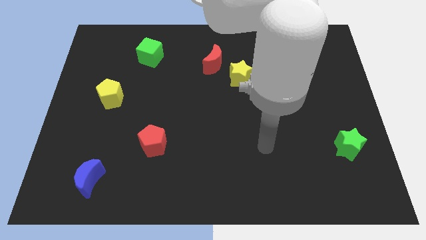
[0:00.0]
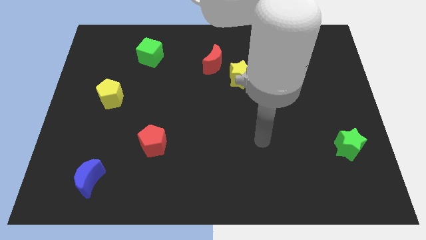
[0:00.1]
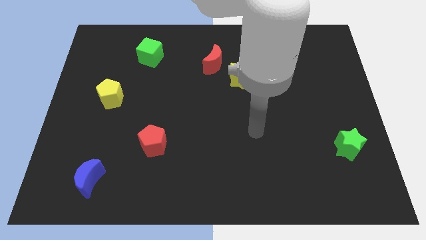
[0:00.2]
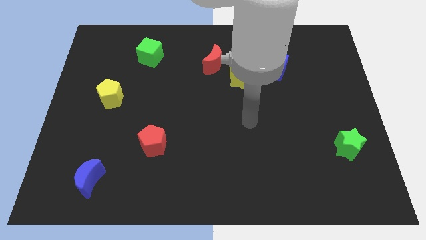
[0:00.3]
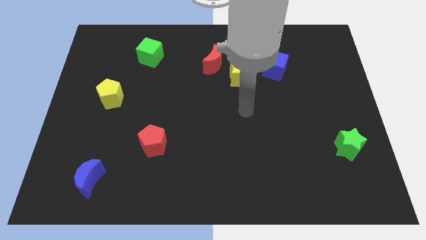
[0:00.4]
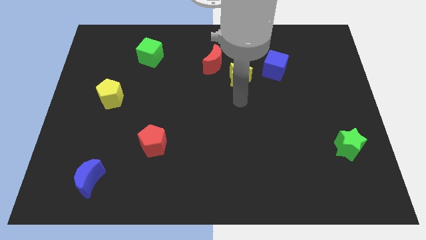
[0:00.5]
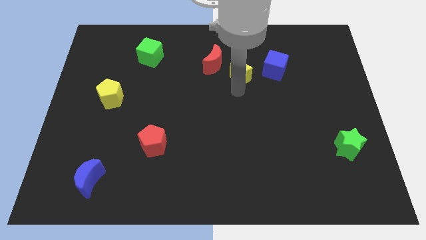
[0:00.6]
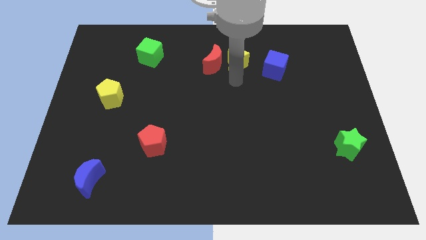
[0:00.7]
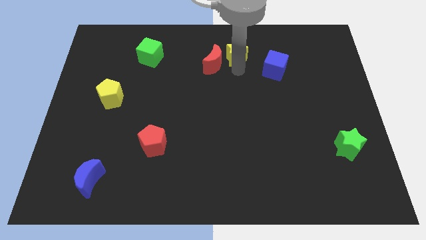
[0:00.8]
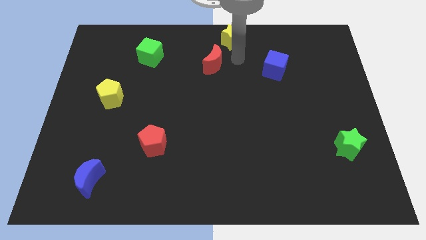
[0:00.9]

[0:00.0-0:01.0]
move the red moon away from the yellow star

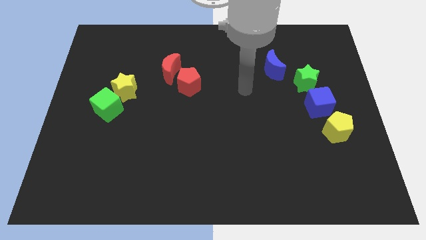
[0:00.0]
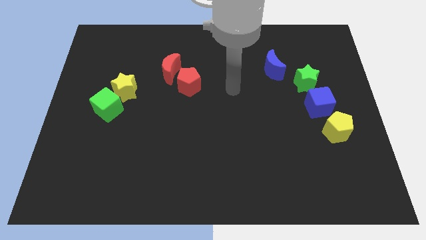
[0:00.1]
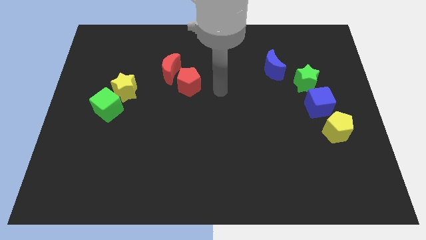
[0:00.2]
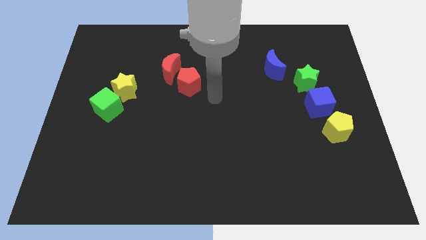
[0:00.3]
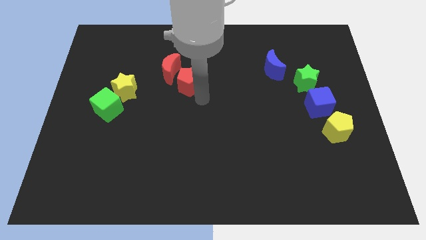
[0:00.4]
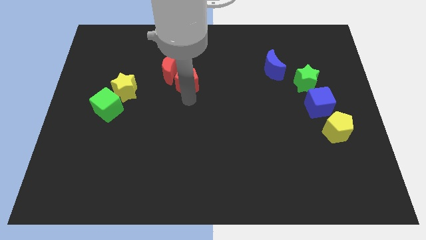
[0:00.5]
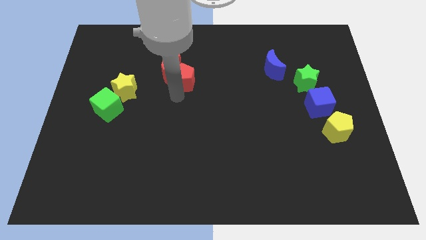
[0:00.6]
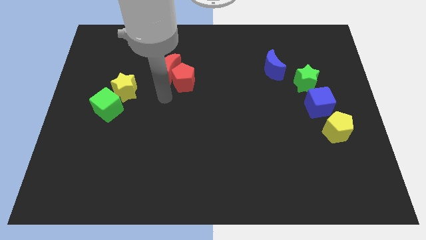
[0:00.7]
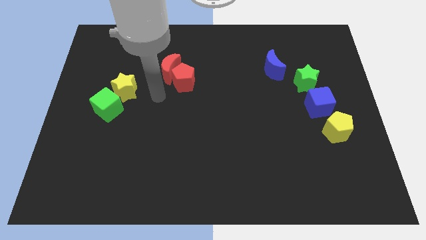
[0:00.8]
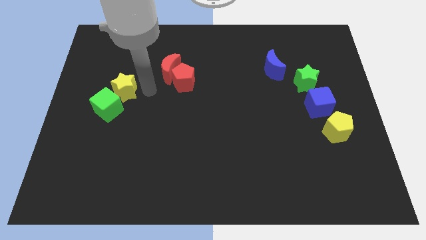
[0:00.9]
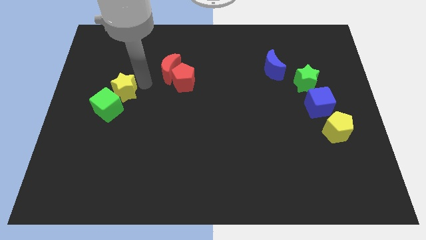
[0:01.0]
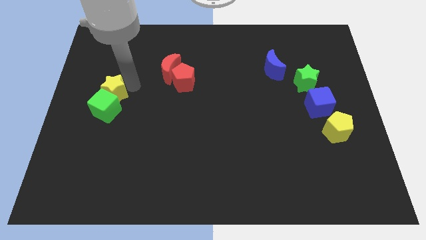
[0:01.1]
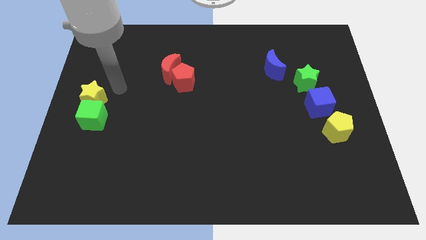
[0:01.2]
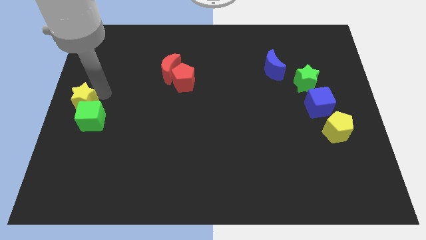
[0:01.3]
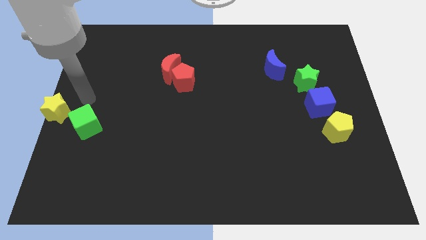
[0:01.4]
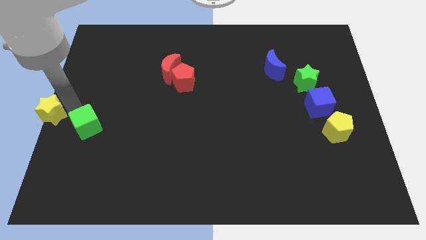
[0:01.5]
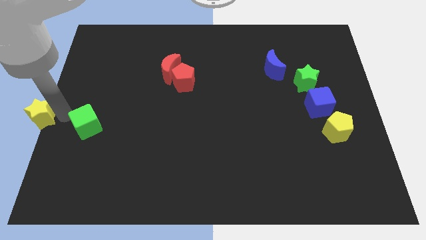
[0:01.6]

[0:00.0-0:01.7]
move the green cube away from the yellow star

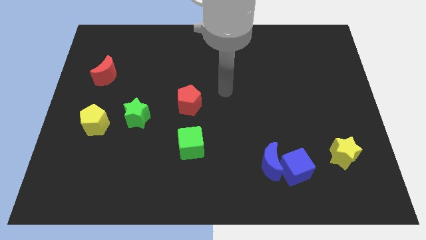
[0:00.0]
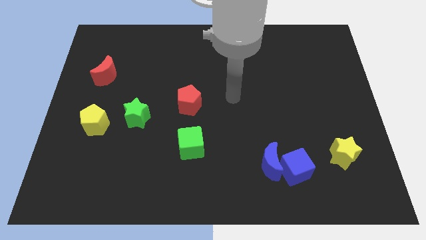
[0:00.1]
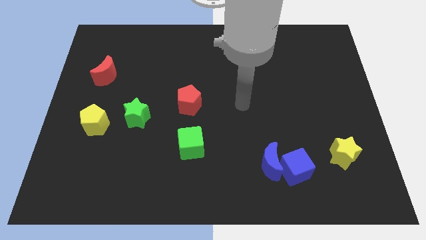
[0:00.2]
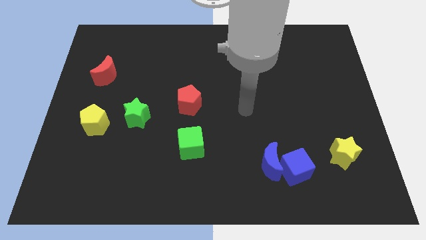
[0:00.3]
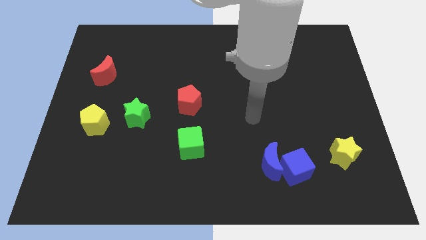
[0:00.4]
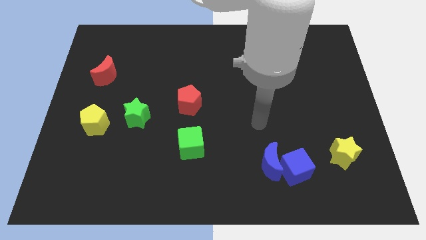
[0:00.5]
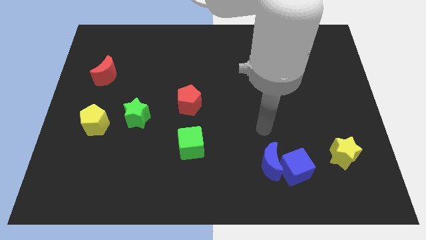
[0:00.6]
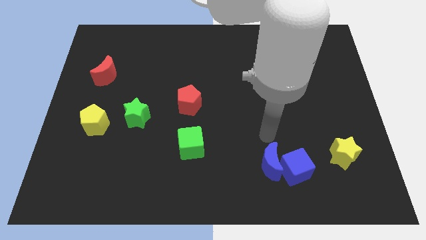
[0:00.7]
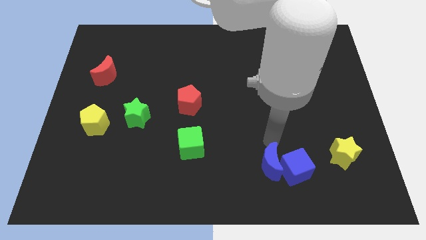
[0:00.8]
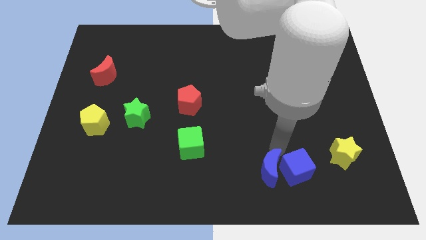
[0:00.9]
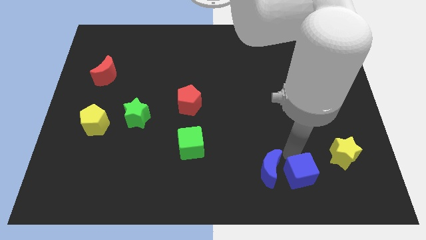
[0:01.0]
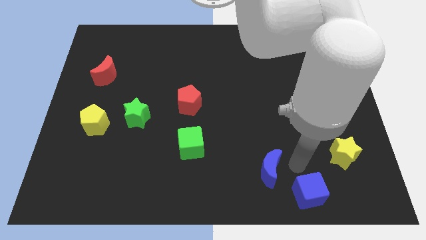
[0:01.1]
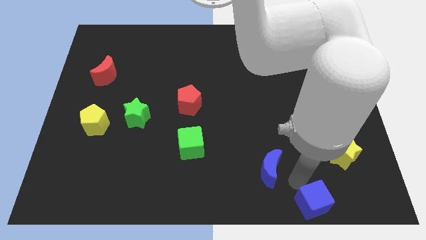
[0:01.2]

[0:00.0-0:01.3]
pull the blue moon apart from the blue cube

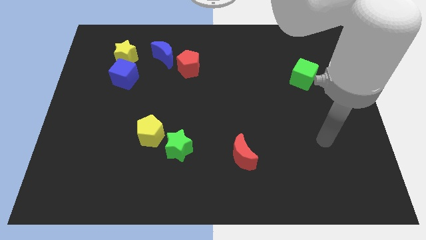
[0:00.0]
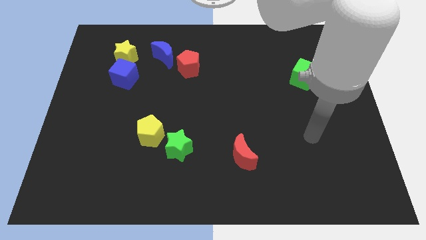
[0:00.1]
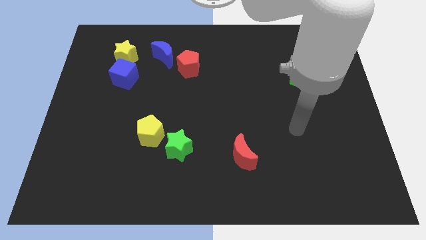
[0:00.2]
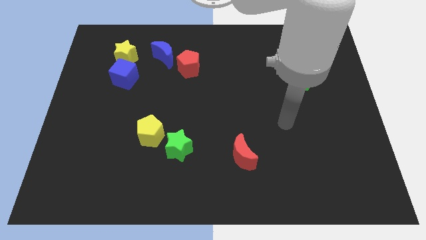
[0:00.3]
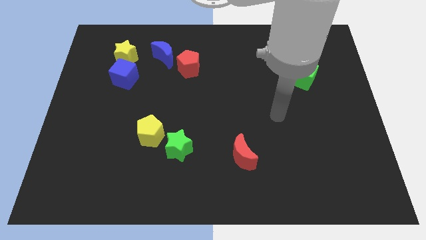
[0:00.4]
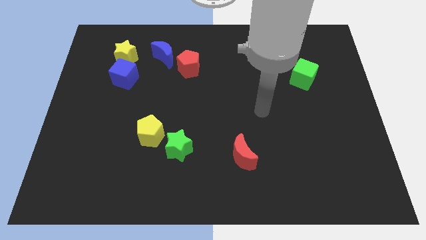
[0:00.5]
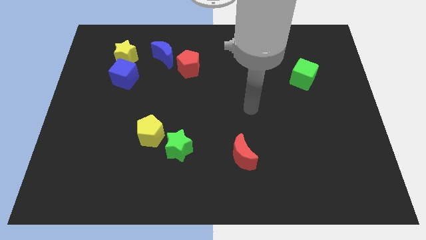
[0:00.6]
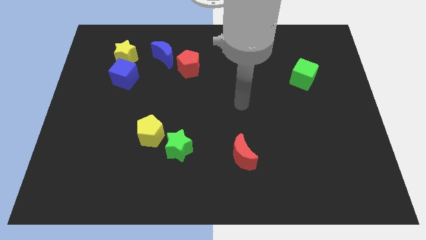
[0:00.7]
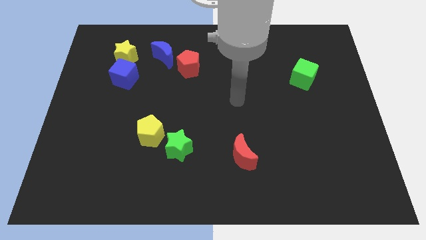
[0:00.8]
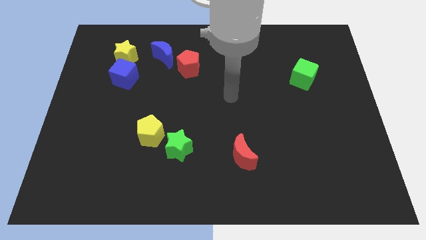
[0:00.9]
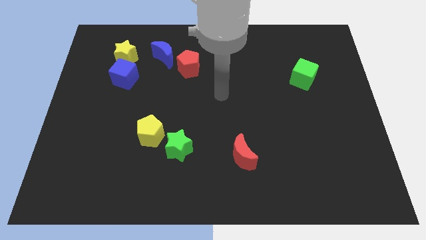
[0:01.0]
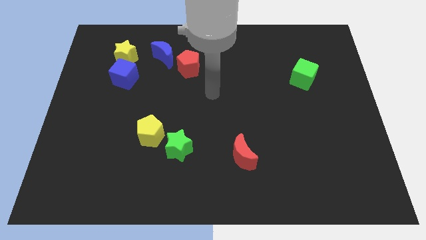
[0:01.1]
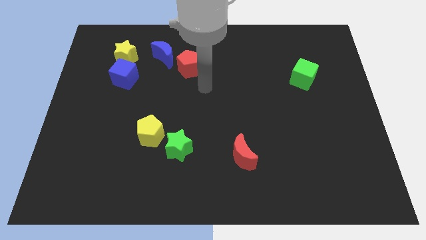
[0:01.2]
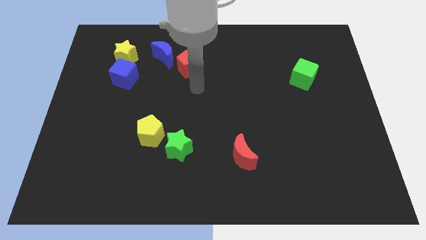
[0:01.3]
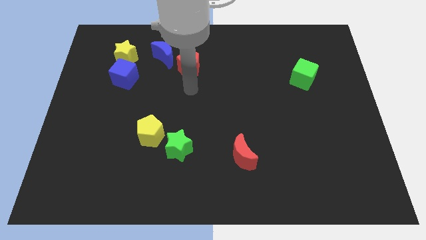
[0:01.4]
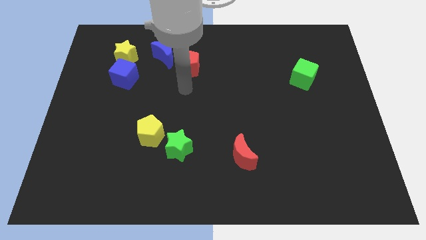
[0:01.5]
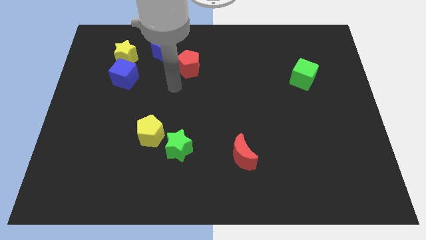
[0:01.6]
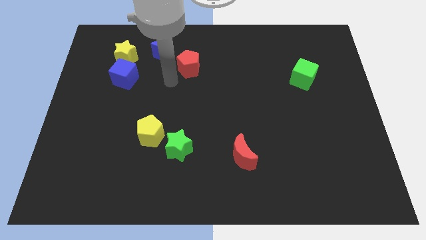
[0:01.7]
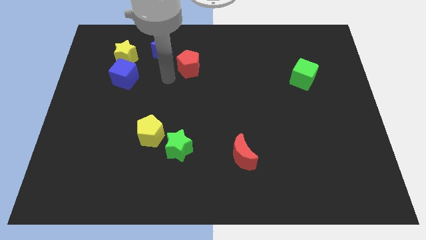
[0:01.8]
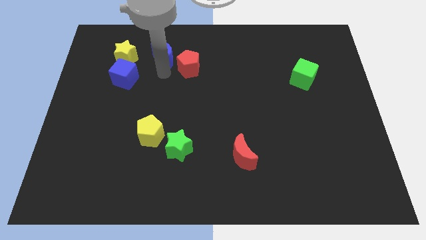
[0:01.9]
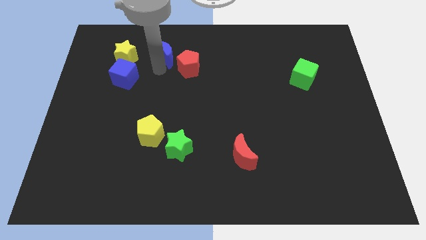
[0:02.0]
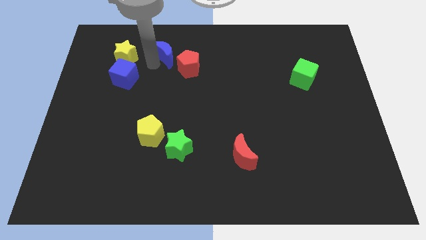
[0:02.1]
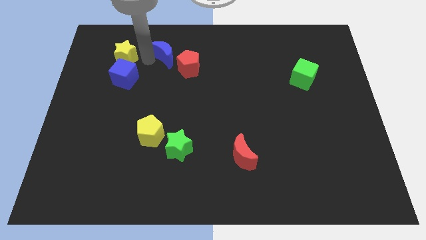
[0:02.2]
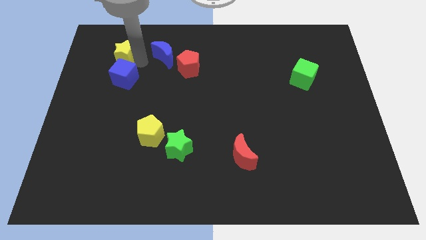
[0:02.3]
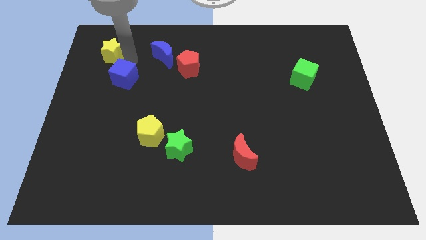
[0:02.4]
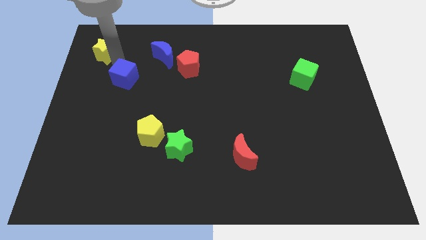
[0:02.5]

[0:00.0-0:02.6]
move the blue cube away from the yellow star

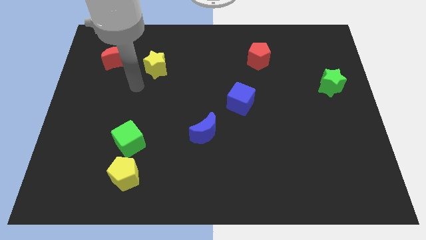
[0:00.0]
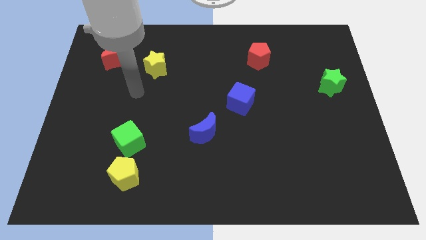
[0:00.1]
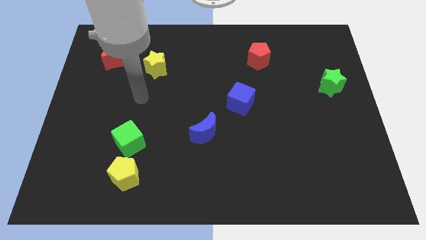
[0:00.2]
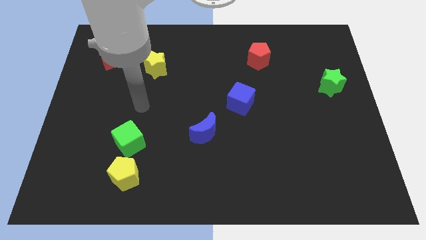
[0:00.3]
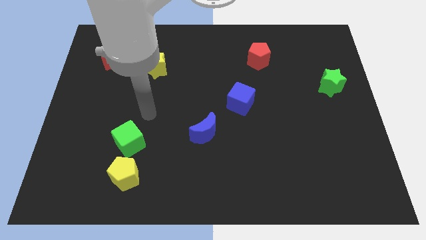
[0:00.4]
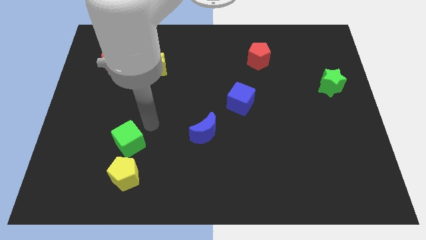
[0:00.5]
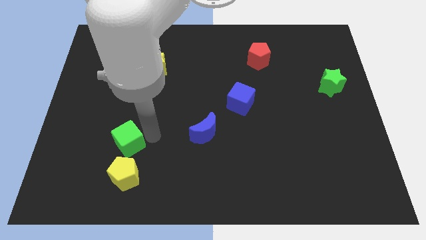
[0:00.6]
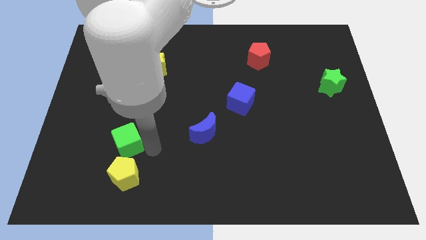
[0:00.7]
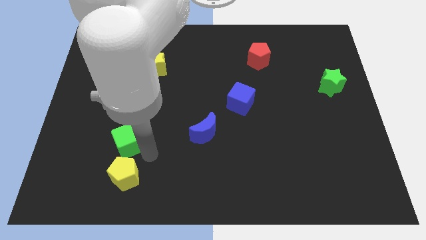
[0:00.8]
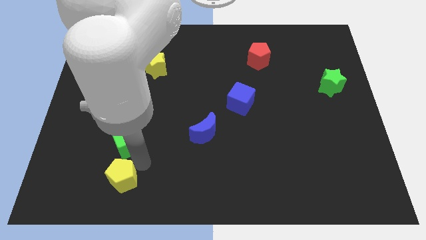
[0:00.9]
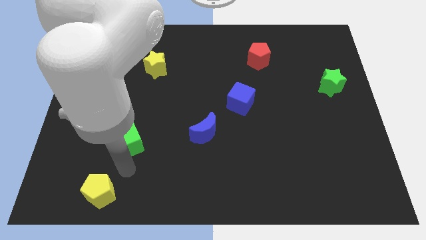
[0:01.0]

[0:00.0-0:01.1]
move the green cube away from the yellow pentagon

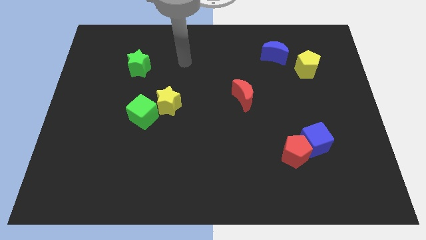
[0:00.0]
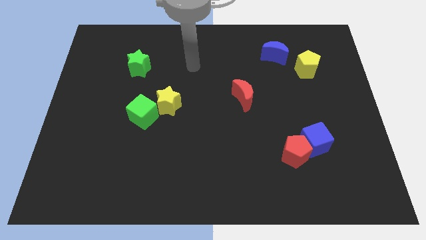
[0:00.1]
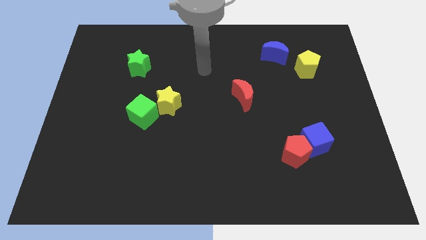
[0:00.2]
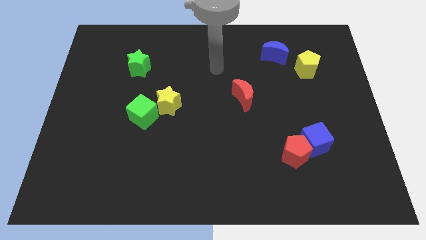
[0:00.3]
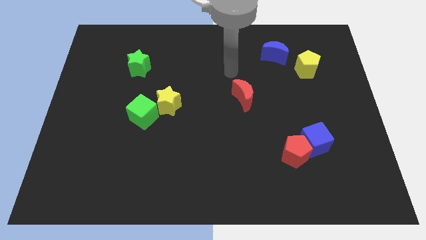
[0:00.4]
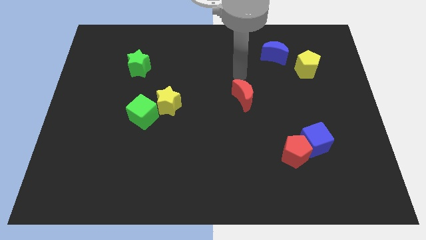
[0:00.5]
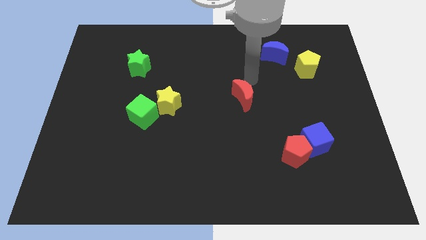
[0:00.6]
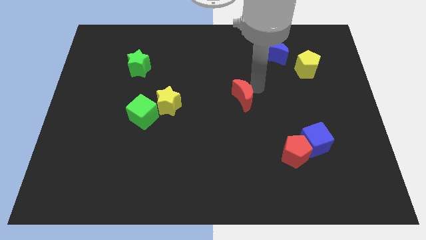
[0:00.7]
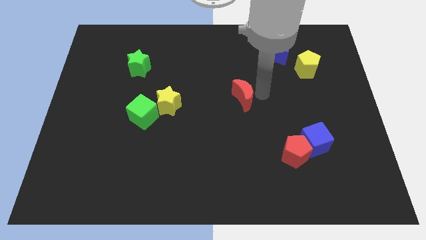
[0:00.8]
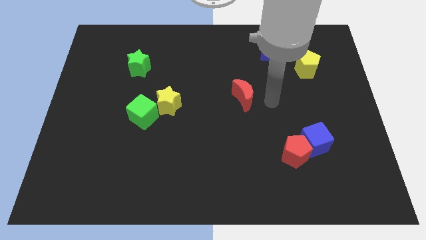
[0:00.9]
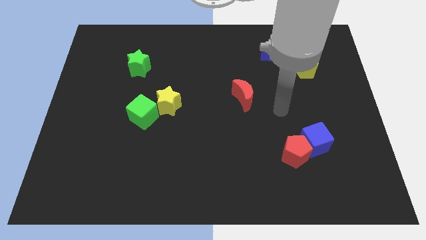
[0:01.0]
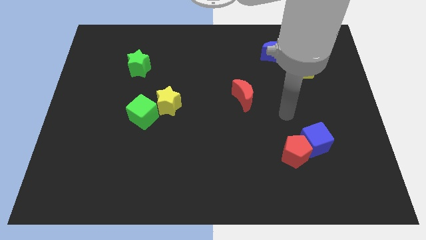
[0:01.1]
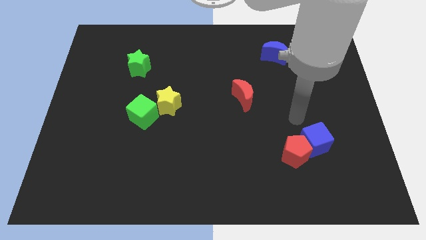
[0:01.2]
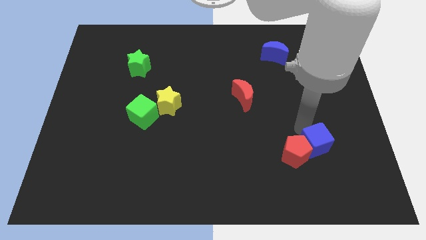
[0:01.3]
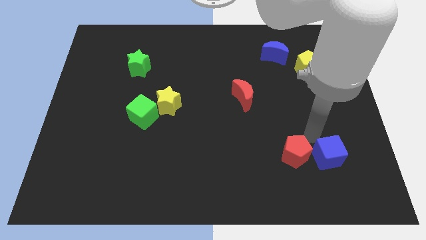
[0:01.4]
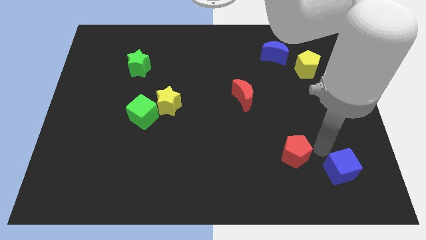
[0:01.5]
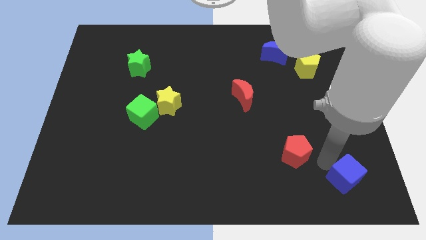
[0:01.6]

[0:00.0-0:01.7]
pull the red pentagon apart from the blue cube
